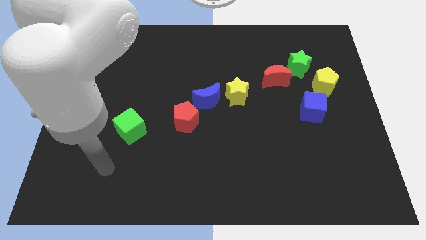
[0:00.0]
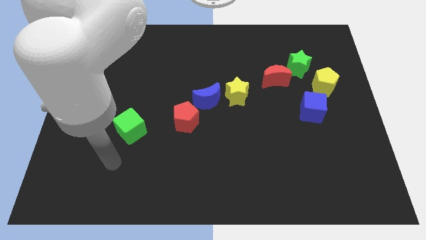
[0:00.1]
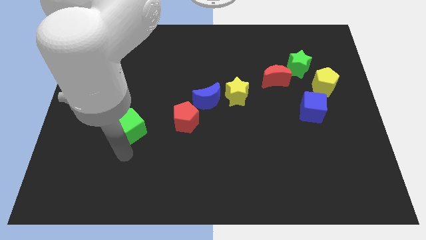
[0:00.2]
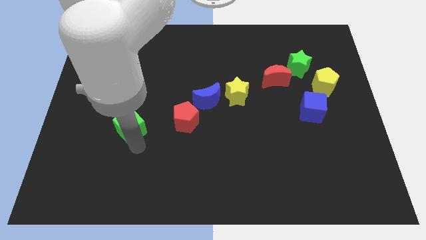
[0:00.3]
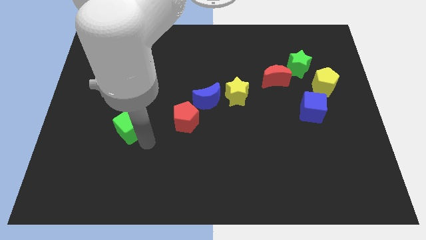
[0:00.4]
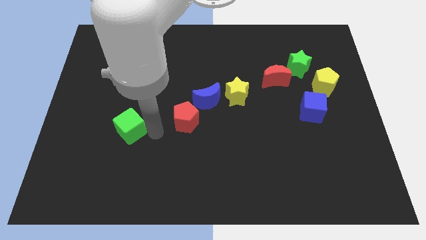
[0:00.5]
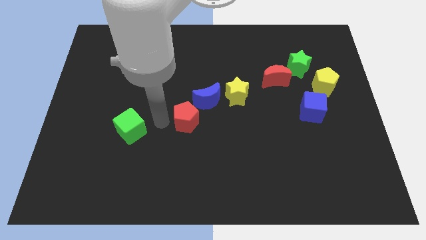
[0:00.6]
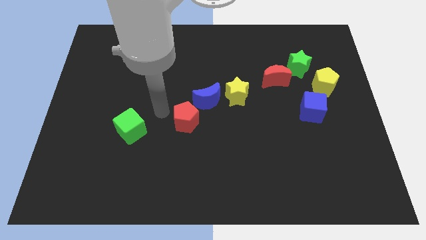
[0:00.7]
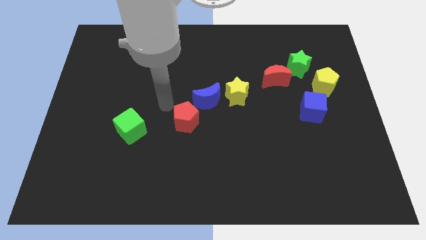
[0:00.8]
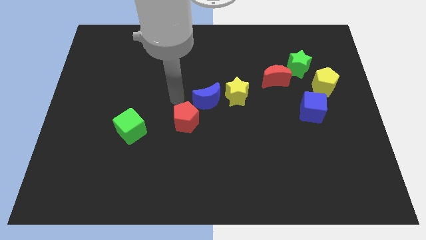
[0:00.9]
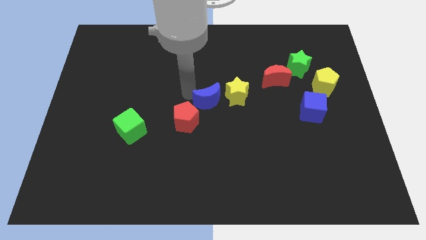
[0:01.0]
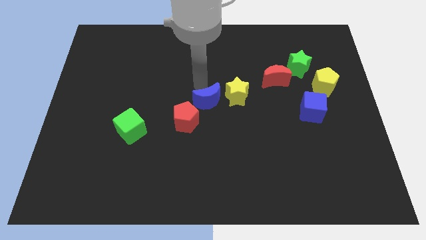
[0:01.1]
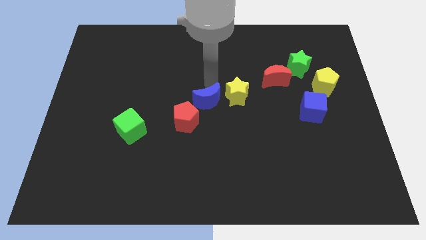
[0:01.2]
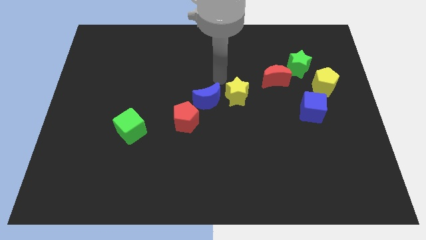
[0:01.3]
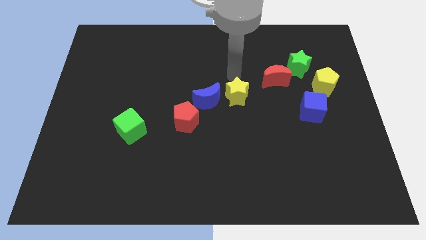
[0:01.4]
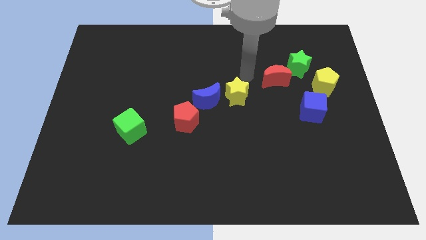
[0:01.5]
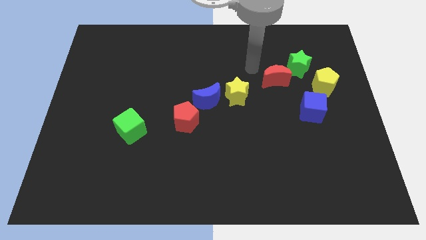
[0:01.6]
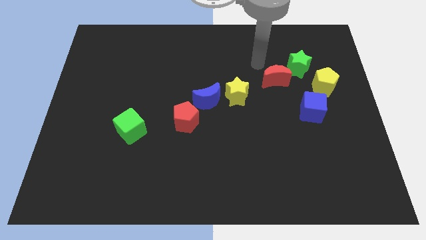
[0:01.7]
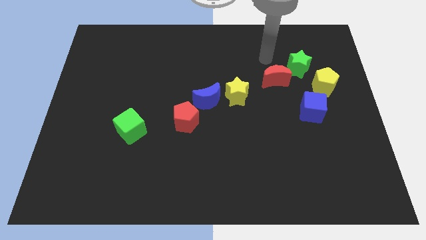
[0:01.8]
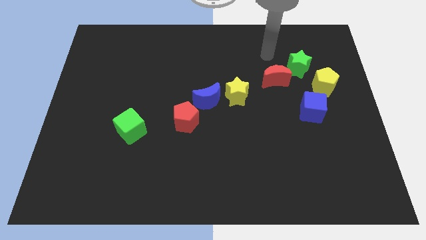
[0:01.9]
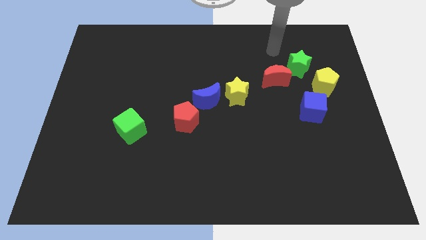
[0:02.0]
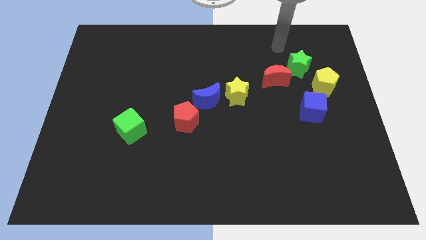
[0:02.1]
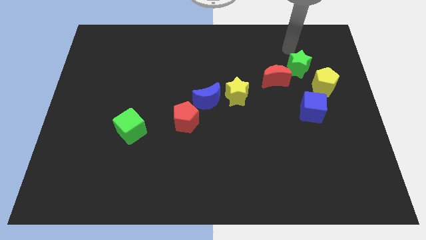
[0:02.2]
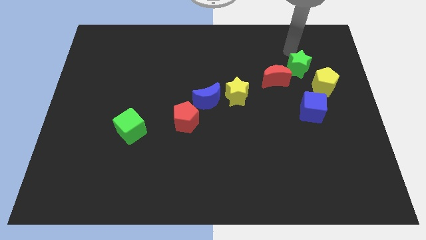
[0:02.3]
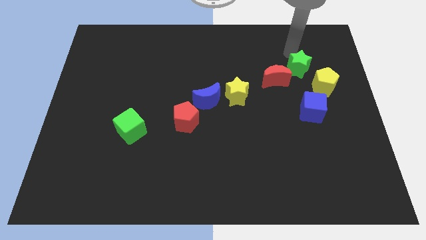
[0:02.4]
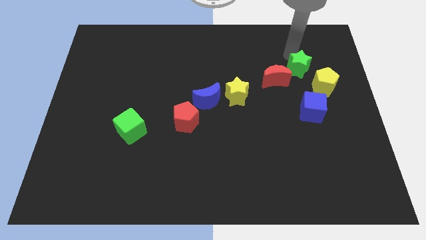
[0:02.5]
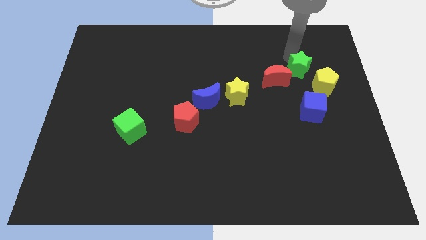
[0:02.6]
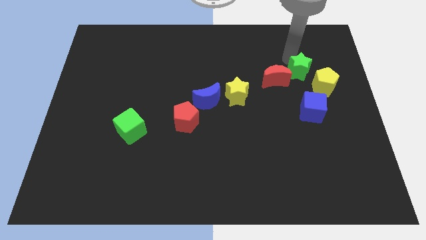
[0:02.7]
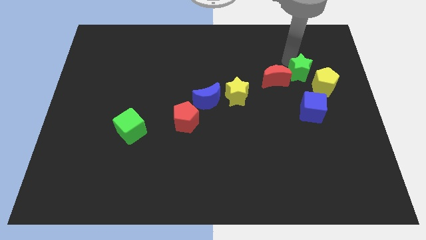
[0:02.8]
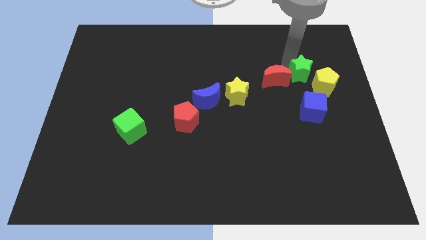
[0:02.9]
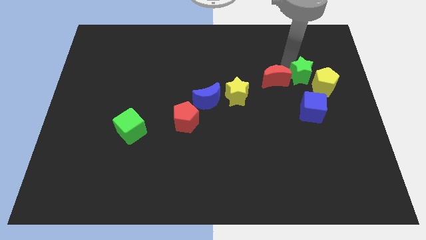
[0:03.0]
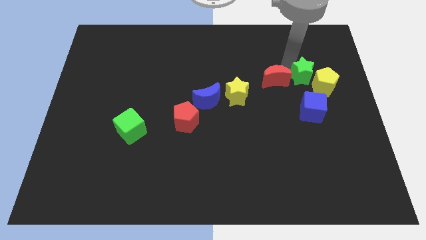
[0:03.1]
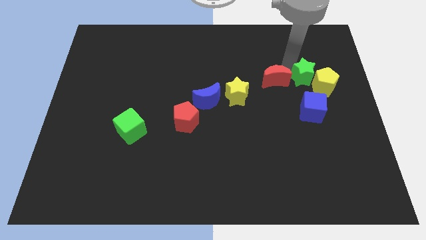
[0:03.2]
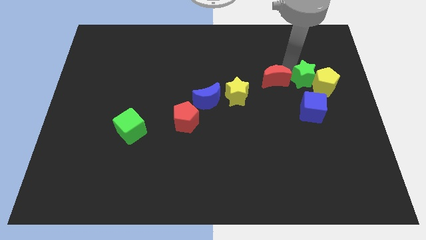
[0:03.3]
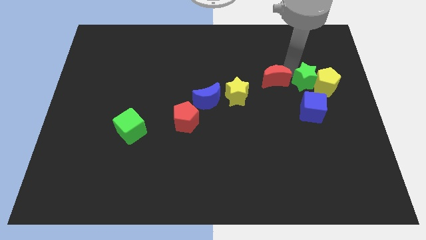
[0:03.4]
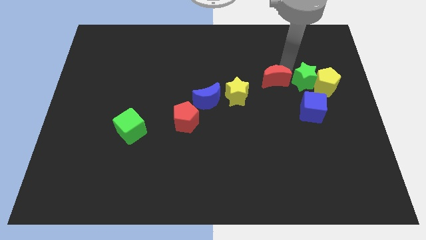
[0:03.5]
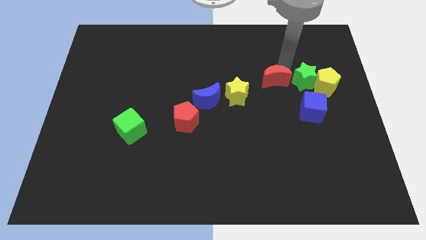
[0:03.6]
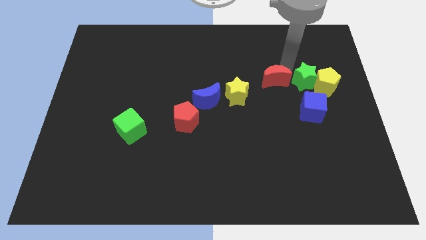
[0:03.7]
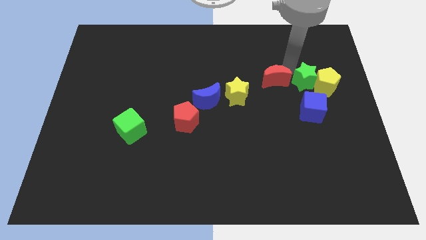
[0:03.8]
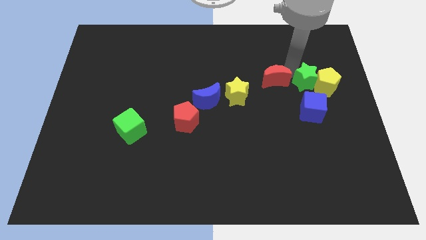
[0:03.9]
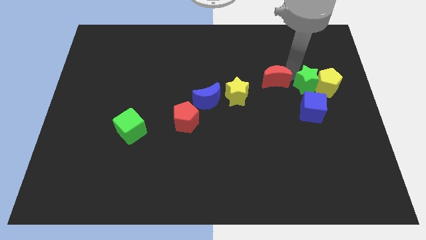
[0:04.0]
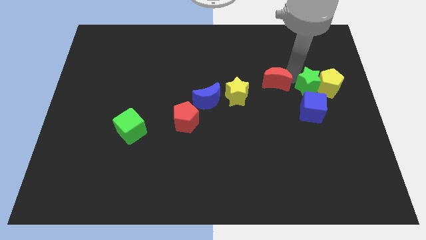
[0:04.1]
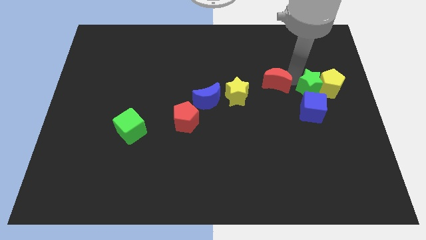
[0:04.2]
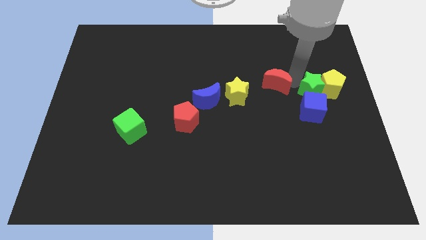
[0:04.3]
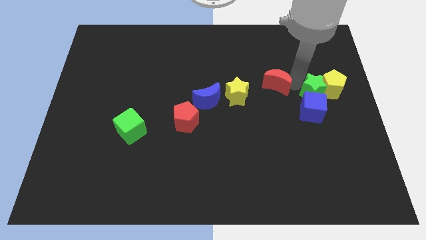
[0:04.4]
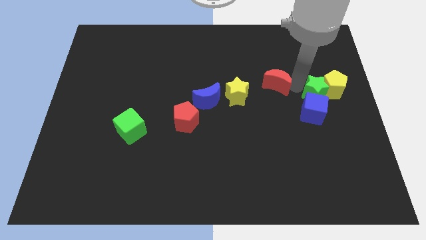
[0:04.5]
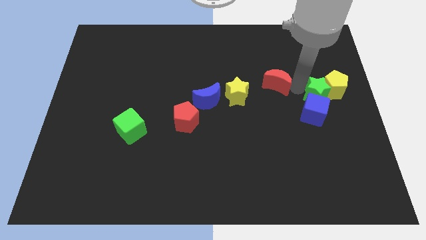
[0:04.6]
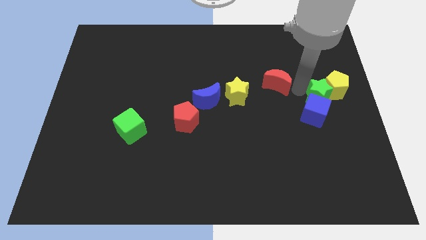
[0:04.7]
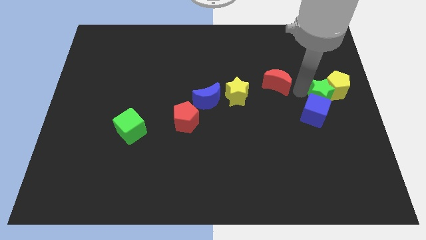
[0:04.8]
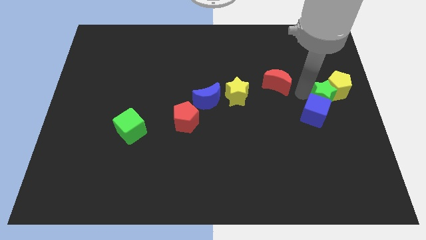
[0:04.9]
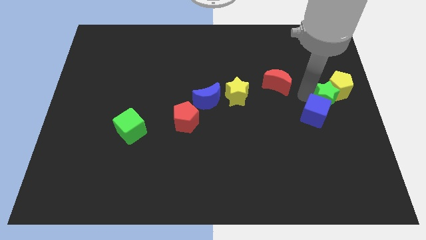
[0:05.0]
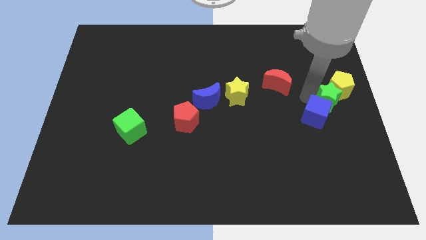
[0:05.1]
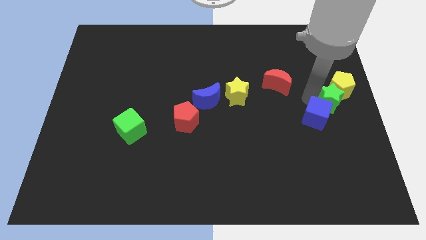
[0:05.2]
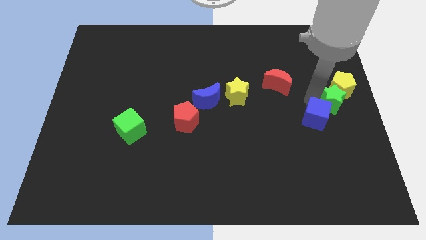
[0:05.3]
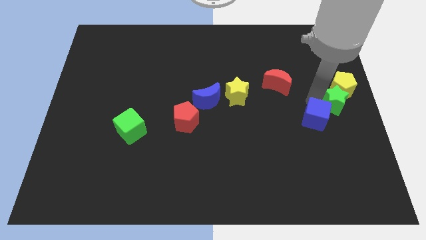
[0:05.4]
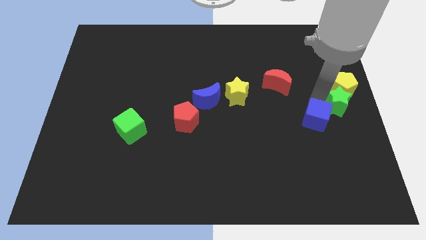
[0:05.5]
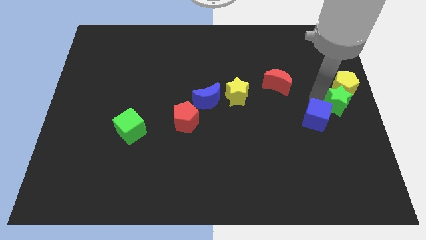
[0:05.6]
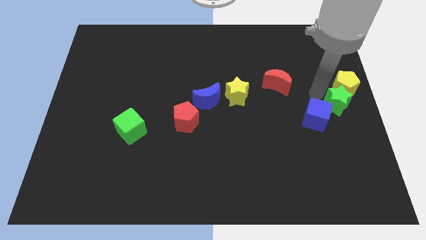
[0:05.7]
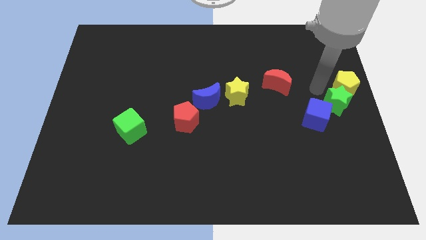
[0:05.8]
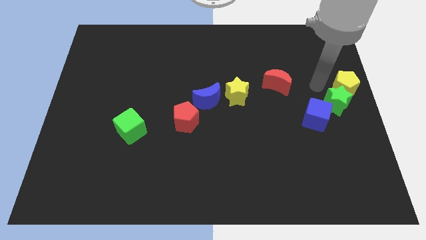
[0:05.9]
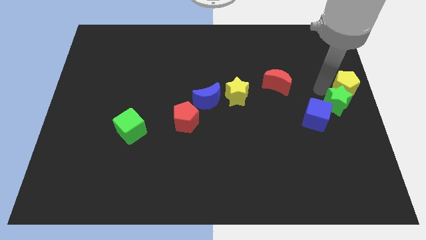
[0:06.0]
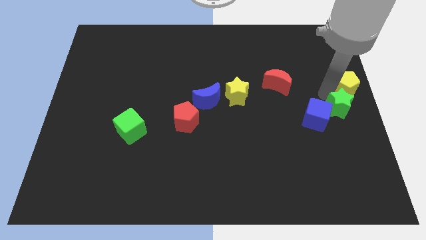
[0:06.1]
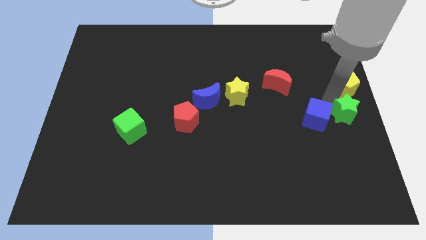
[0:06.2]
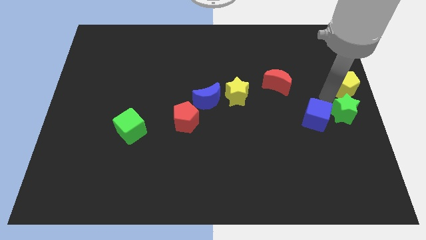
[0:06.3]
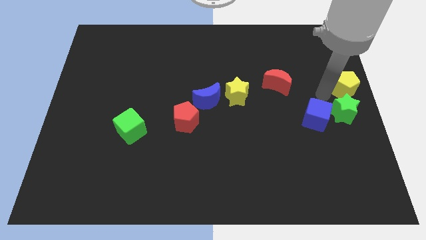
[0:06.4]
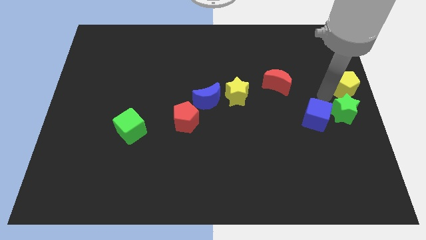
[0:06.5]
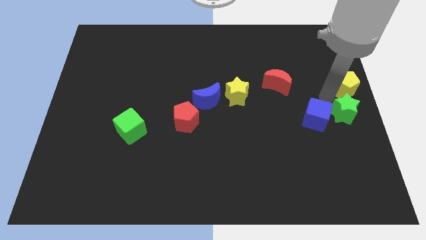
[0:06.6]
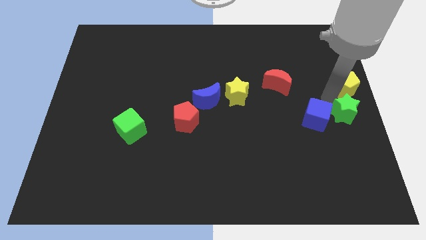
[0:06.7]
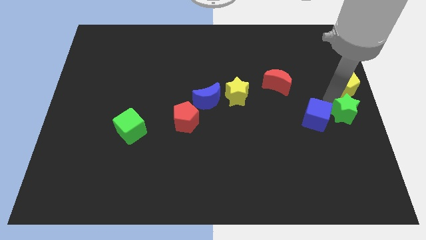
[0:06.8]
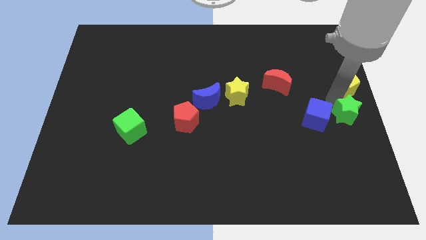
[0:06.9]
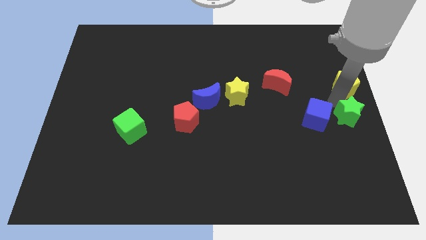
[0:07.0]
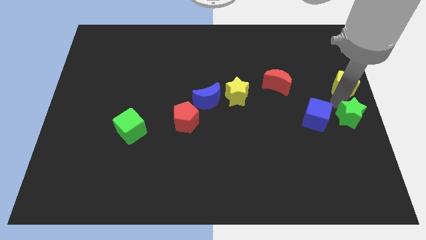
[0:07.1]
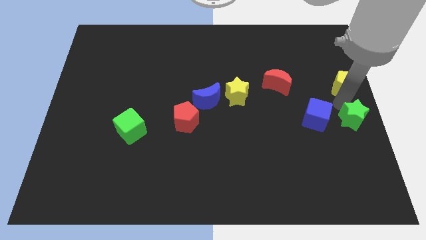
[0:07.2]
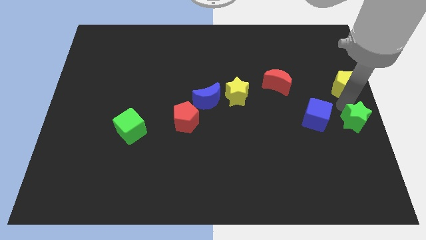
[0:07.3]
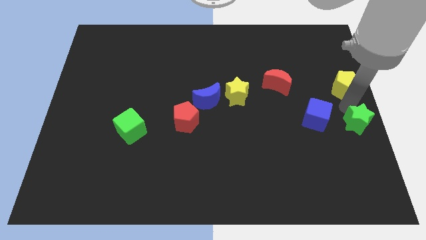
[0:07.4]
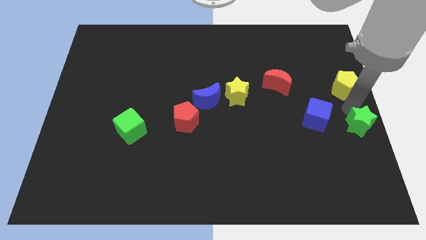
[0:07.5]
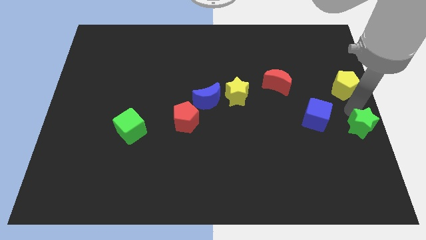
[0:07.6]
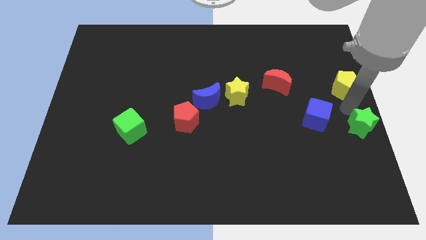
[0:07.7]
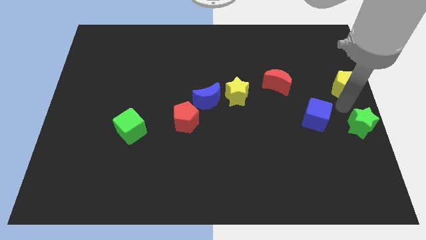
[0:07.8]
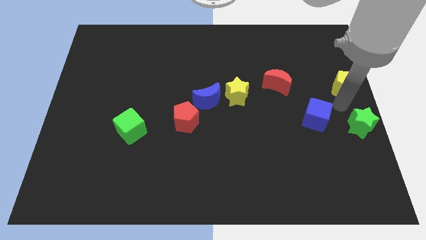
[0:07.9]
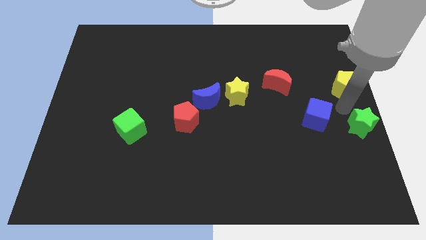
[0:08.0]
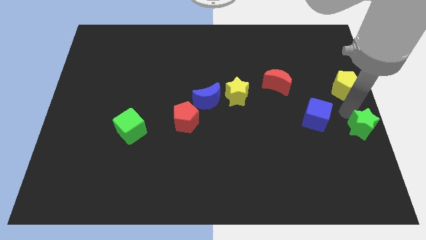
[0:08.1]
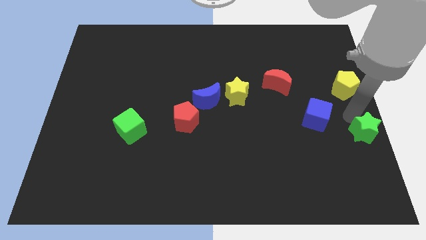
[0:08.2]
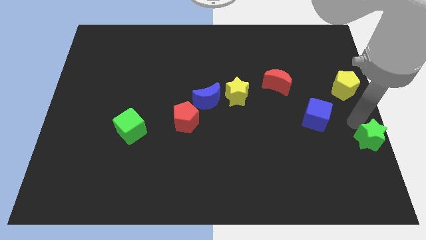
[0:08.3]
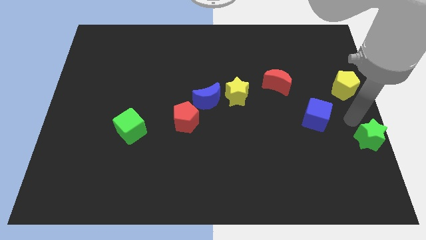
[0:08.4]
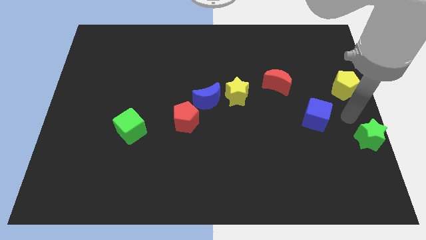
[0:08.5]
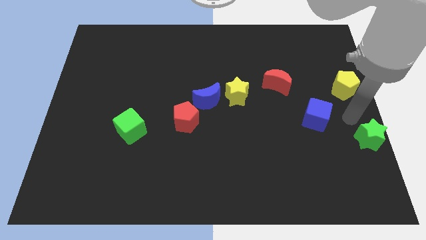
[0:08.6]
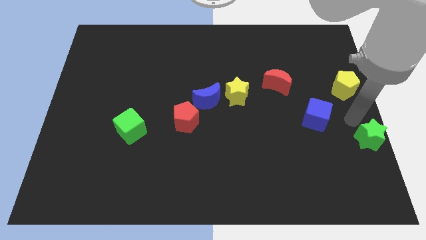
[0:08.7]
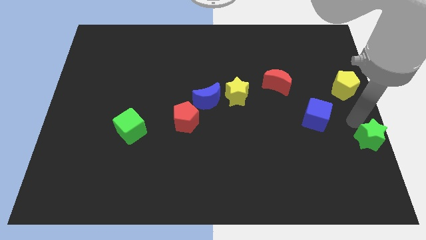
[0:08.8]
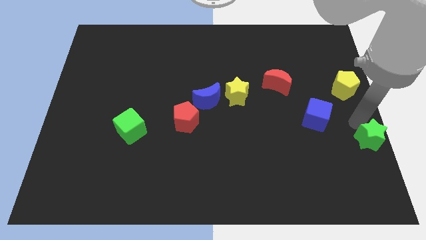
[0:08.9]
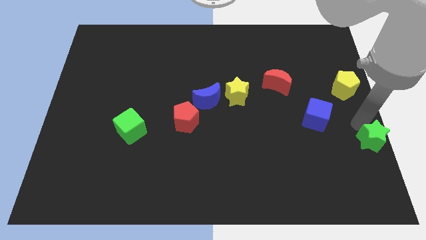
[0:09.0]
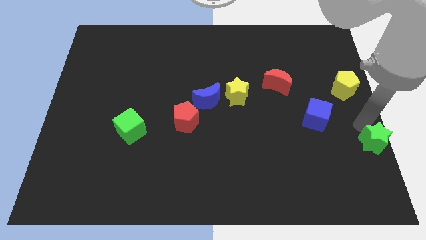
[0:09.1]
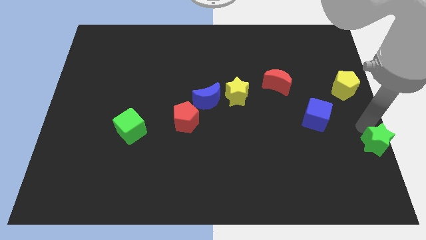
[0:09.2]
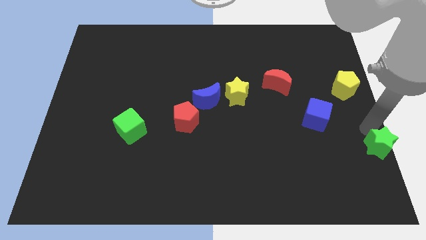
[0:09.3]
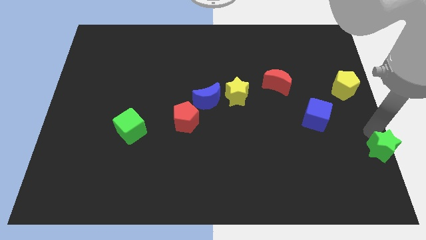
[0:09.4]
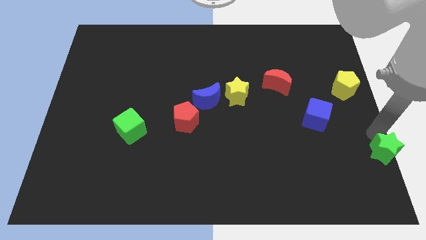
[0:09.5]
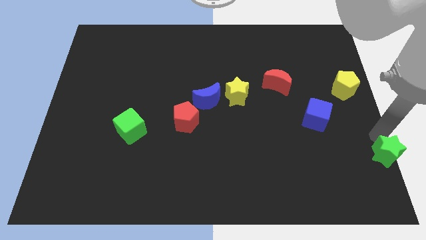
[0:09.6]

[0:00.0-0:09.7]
put the green star to the lower right corner
